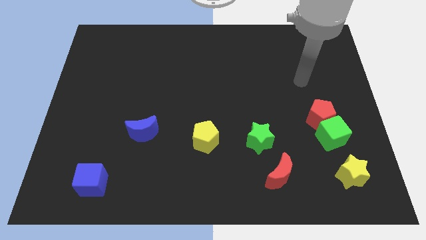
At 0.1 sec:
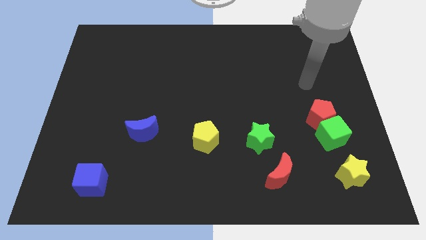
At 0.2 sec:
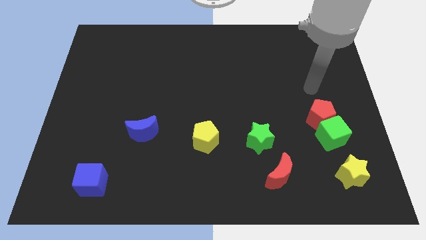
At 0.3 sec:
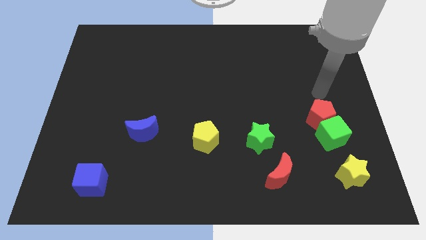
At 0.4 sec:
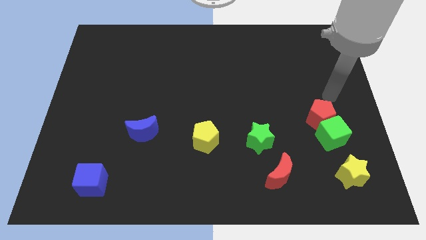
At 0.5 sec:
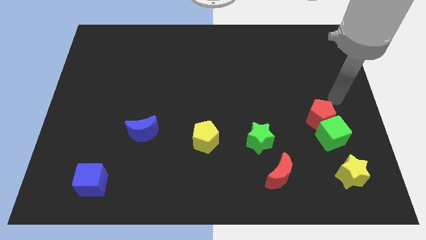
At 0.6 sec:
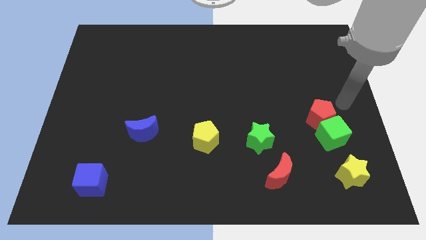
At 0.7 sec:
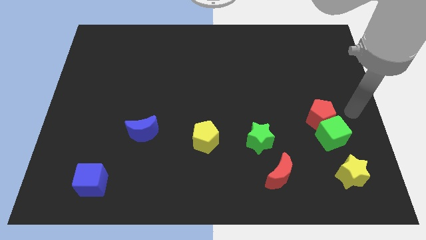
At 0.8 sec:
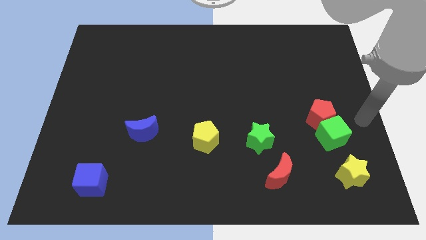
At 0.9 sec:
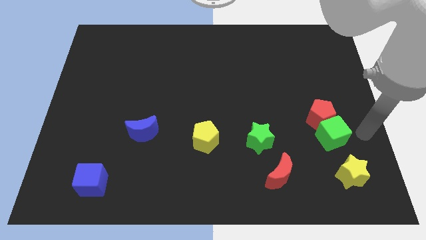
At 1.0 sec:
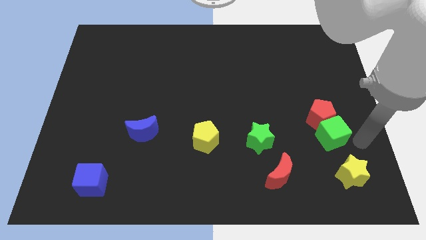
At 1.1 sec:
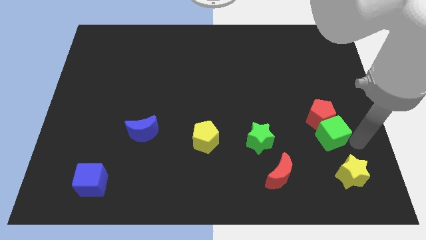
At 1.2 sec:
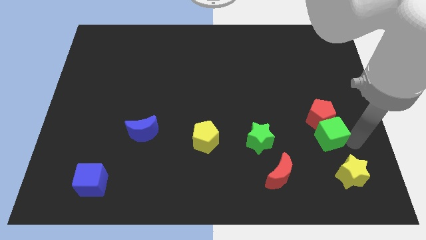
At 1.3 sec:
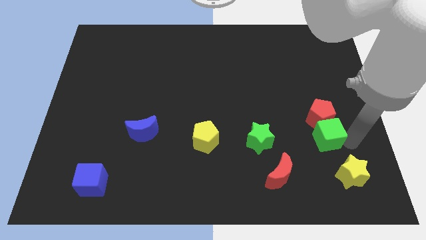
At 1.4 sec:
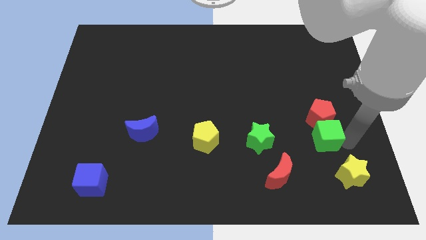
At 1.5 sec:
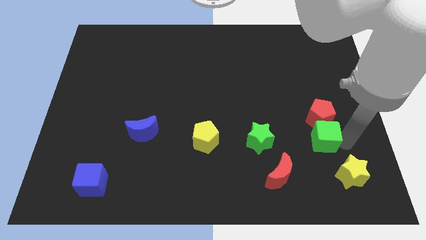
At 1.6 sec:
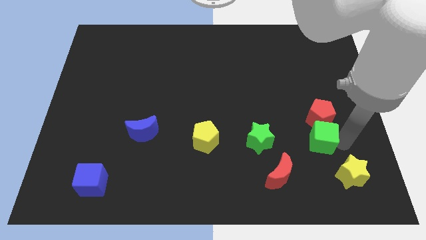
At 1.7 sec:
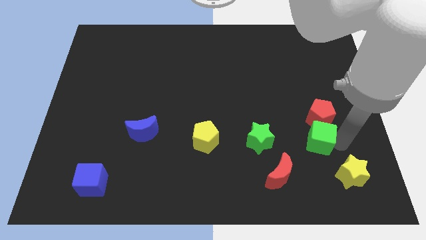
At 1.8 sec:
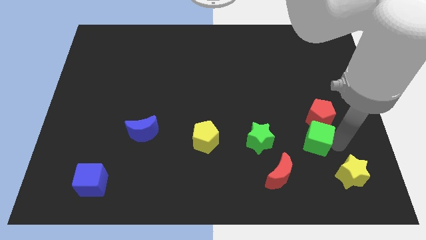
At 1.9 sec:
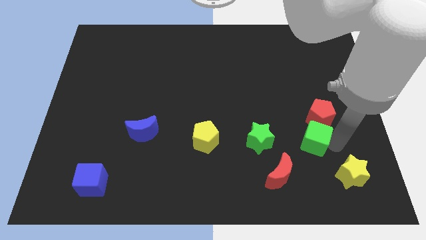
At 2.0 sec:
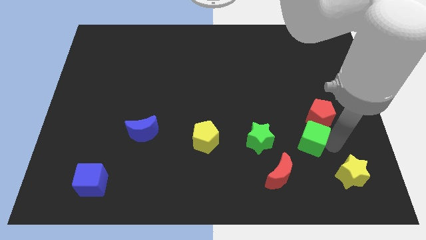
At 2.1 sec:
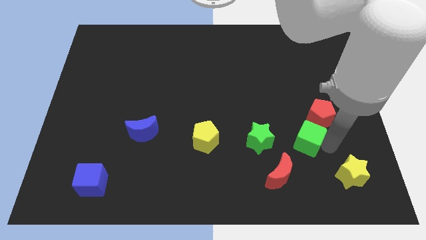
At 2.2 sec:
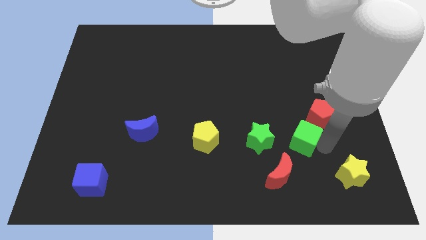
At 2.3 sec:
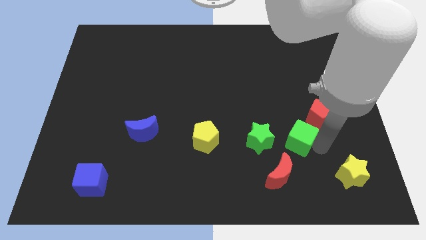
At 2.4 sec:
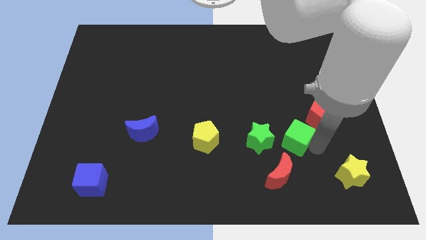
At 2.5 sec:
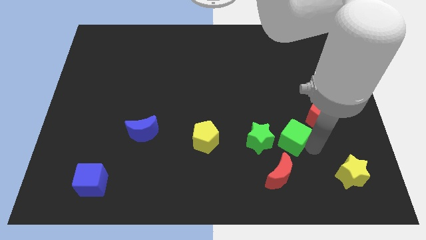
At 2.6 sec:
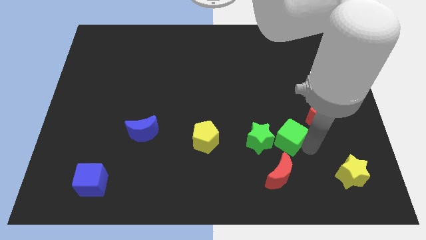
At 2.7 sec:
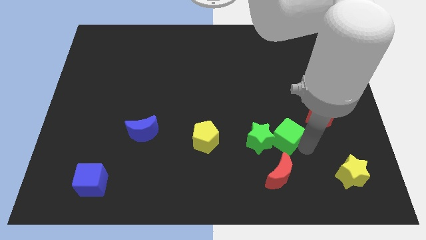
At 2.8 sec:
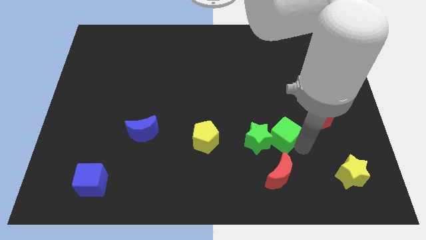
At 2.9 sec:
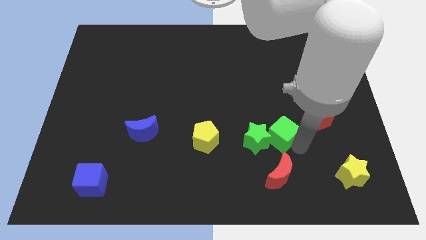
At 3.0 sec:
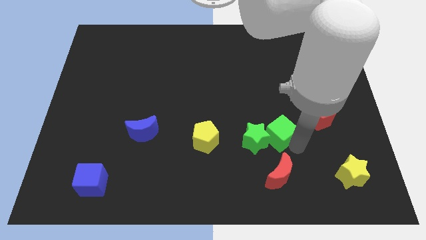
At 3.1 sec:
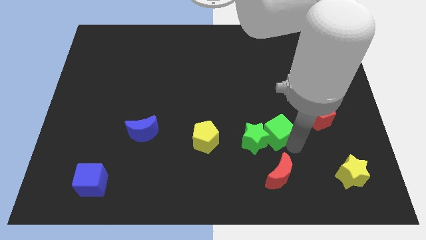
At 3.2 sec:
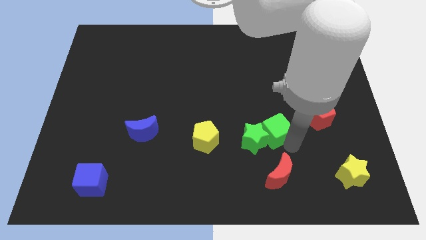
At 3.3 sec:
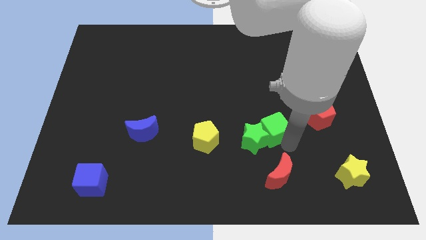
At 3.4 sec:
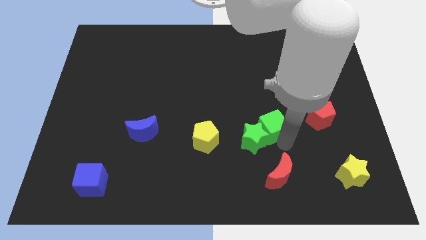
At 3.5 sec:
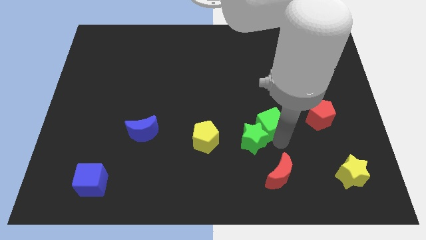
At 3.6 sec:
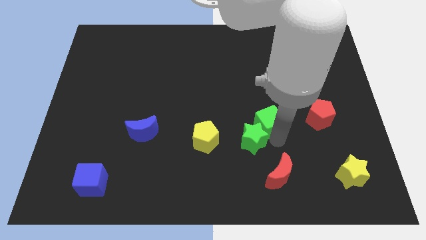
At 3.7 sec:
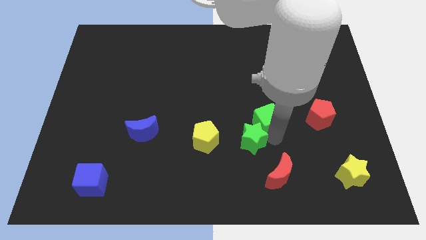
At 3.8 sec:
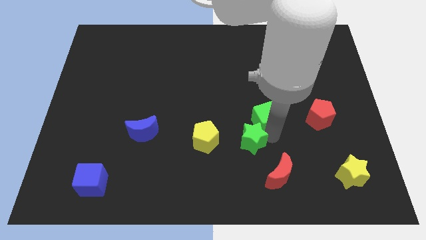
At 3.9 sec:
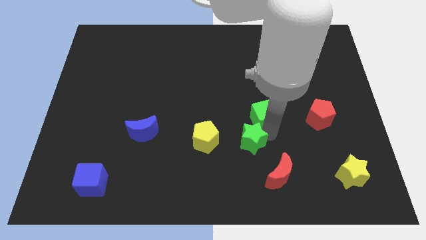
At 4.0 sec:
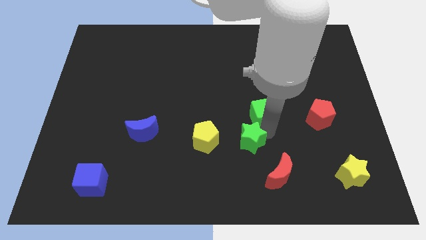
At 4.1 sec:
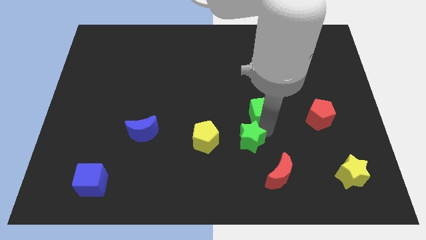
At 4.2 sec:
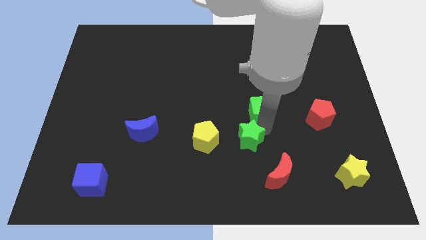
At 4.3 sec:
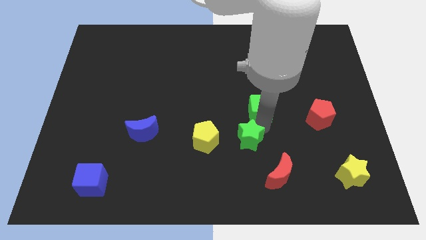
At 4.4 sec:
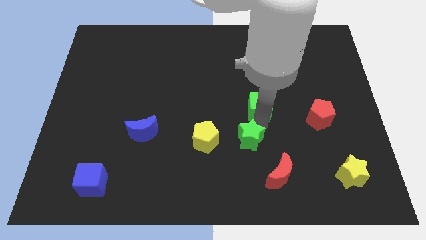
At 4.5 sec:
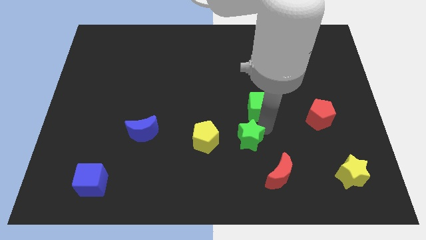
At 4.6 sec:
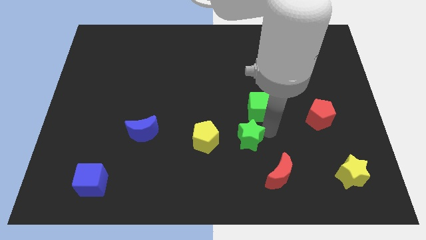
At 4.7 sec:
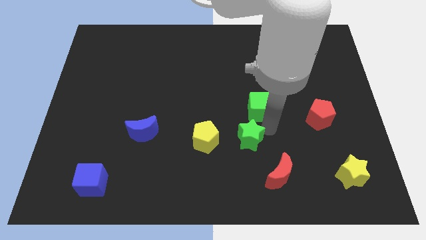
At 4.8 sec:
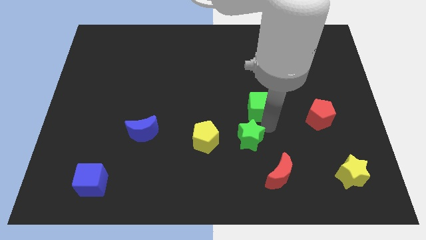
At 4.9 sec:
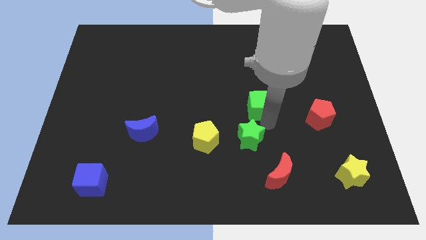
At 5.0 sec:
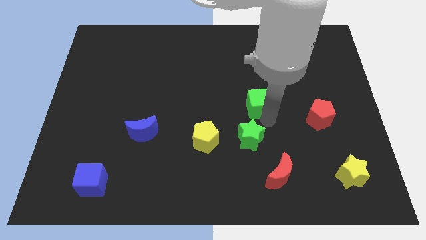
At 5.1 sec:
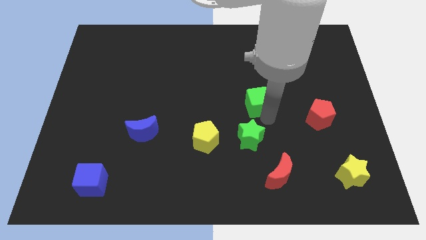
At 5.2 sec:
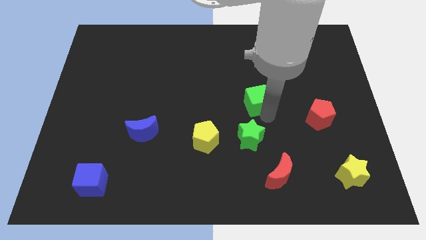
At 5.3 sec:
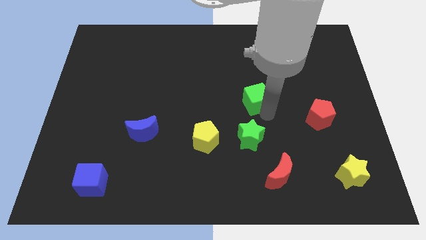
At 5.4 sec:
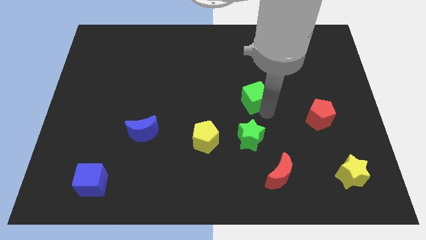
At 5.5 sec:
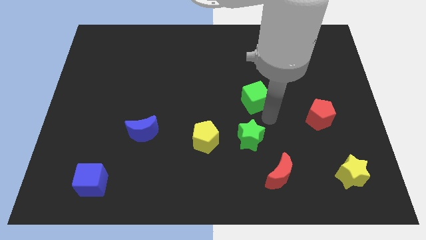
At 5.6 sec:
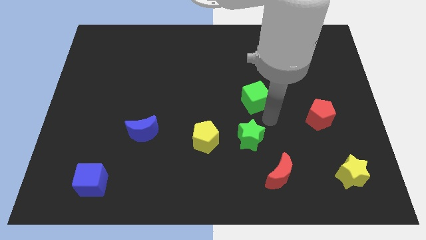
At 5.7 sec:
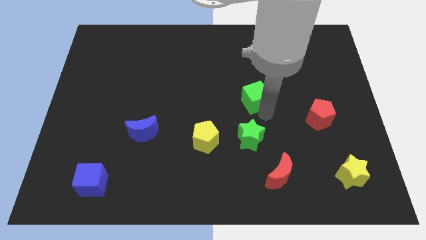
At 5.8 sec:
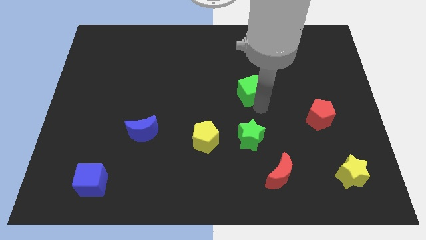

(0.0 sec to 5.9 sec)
move the green cube up and to the left diagonally

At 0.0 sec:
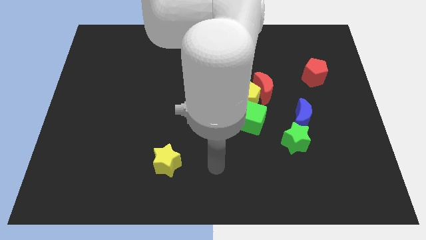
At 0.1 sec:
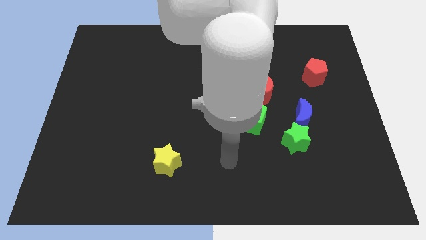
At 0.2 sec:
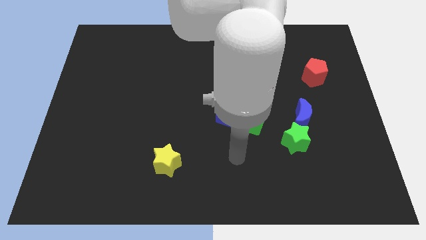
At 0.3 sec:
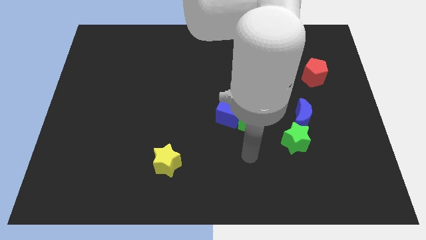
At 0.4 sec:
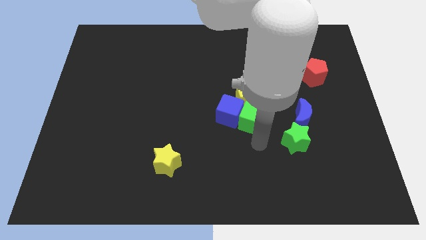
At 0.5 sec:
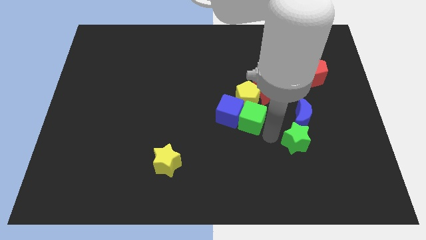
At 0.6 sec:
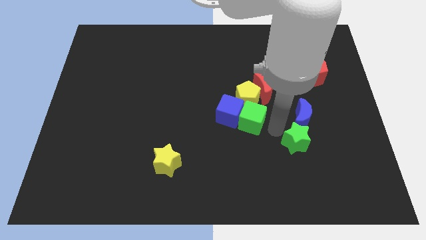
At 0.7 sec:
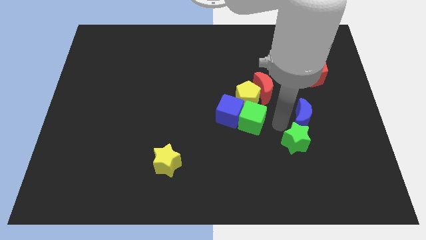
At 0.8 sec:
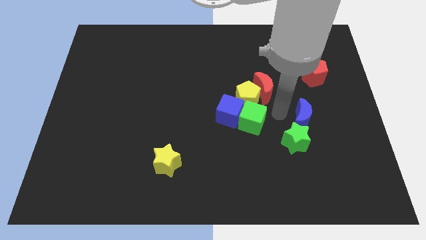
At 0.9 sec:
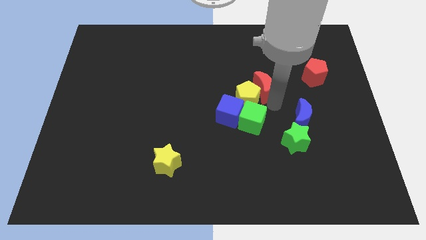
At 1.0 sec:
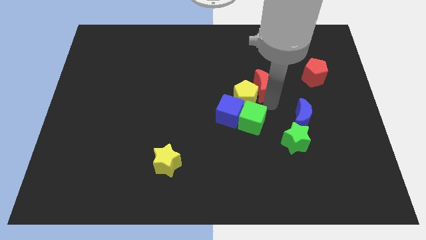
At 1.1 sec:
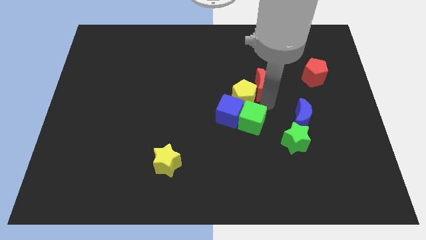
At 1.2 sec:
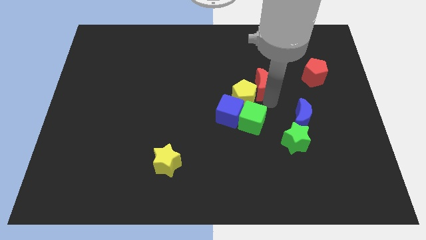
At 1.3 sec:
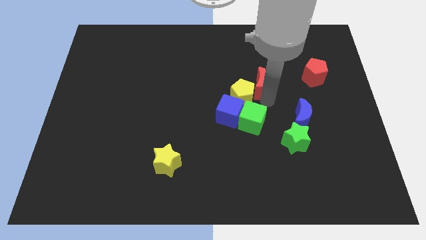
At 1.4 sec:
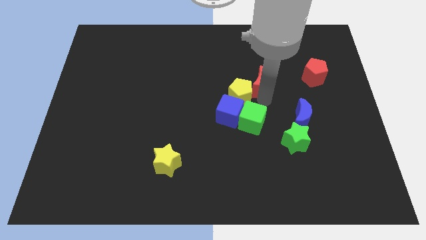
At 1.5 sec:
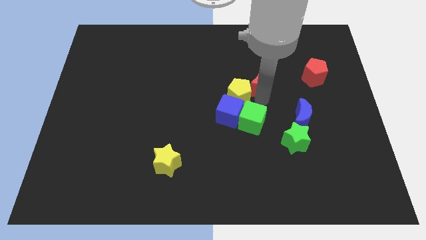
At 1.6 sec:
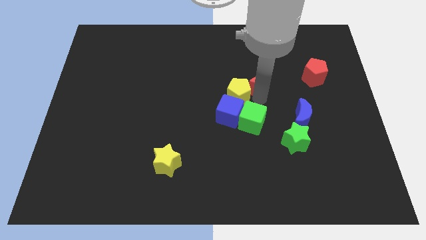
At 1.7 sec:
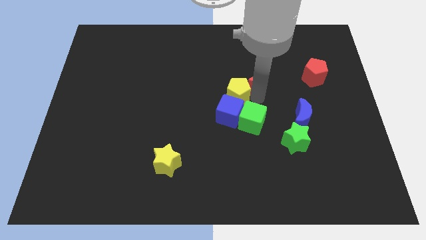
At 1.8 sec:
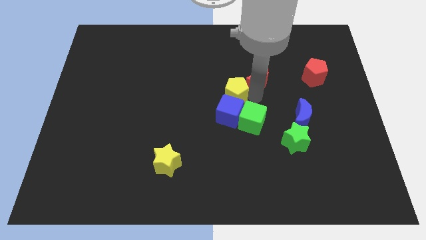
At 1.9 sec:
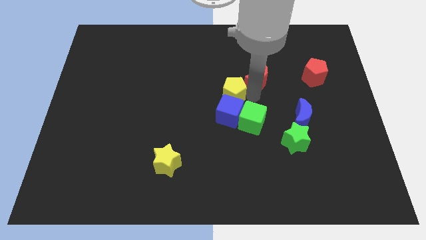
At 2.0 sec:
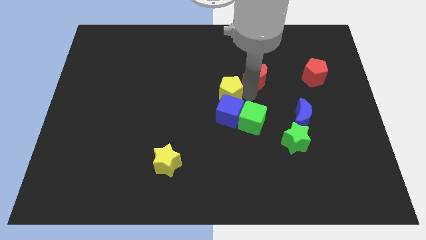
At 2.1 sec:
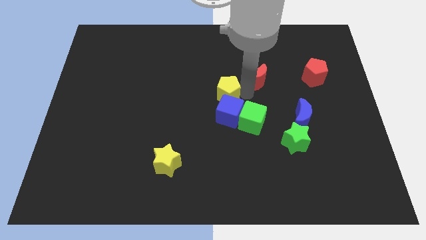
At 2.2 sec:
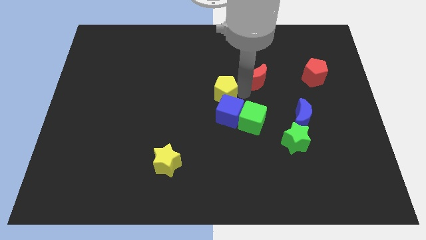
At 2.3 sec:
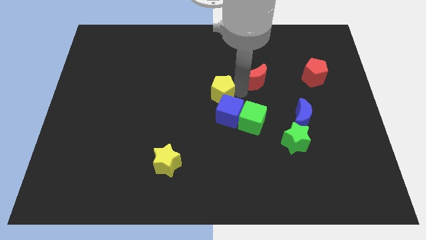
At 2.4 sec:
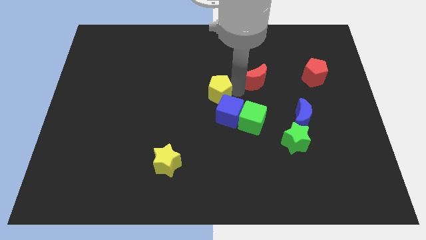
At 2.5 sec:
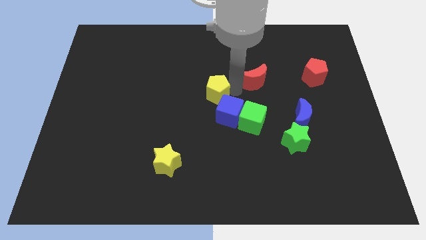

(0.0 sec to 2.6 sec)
push the yellow pentagon a little to the left
